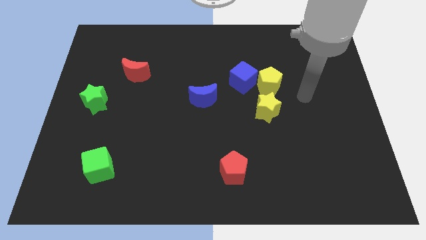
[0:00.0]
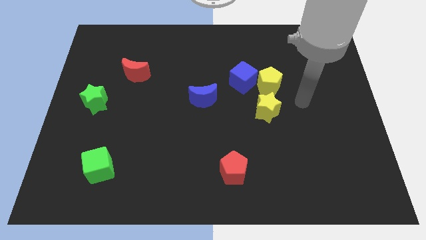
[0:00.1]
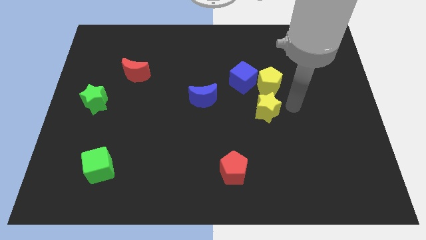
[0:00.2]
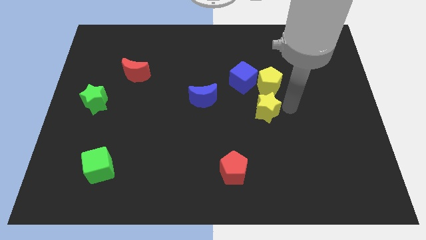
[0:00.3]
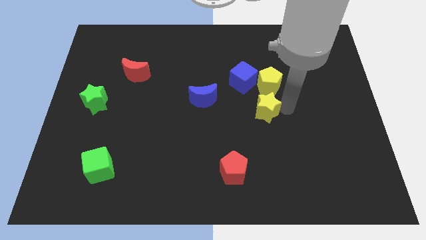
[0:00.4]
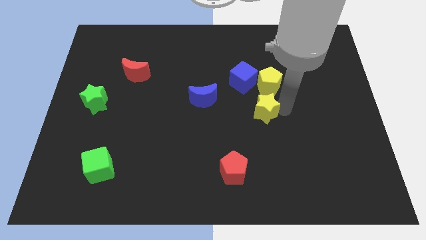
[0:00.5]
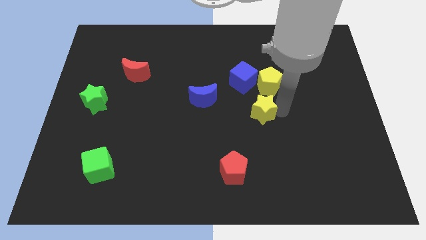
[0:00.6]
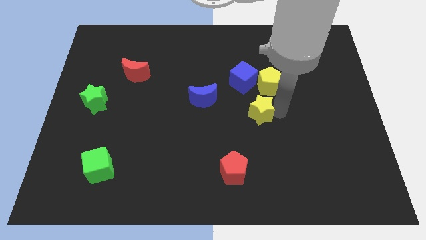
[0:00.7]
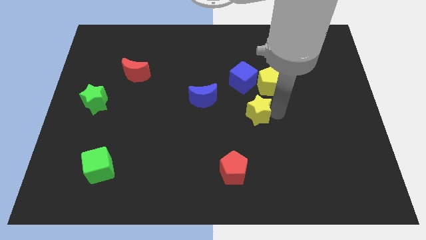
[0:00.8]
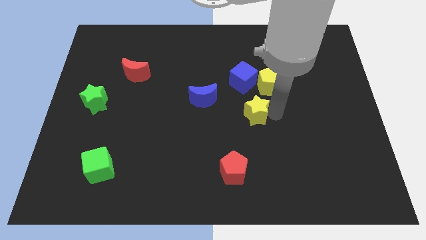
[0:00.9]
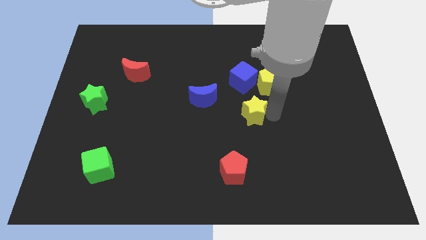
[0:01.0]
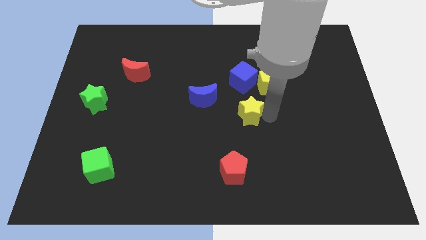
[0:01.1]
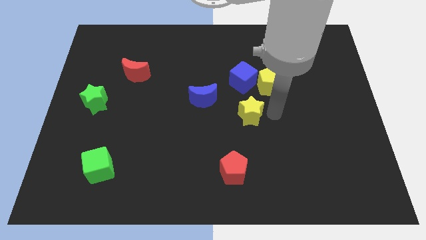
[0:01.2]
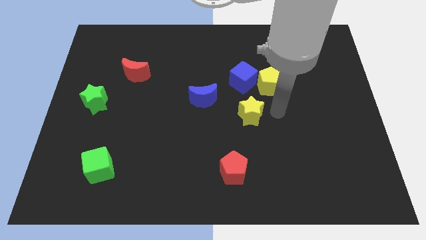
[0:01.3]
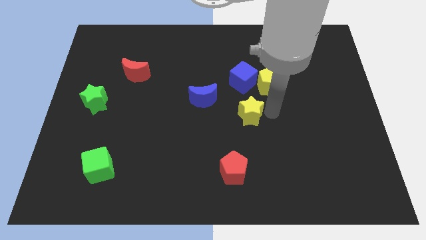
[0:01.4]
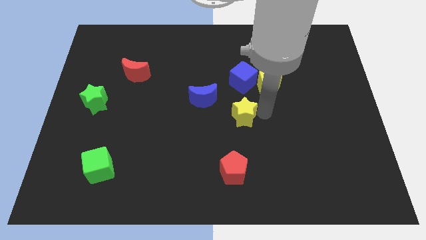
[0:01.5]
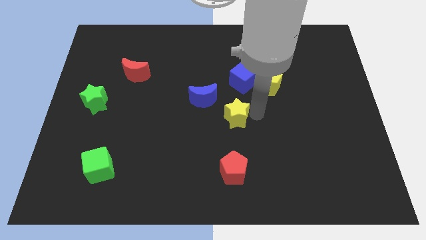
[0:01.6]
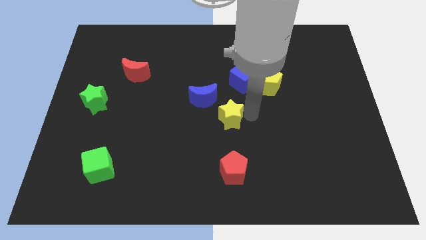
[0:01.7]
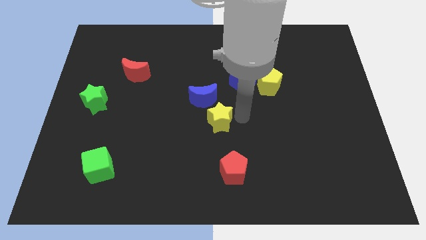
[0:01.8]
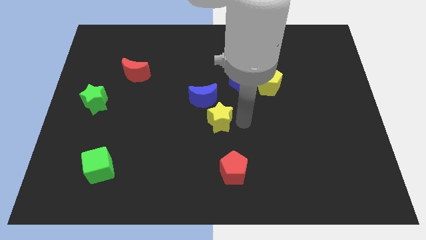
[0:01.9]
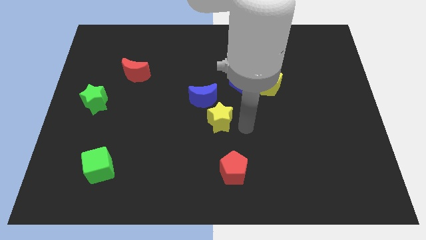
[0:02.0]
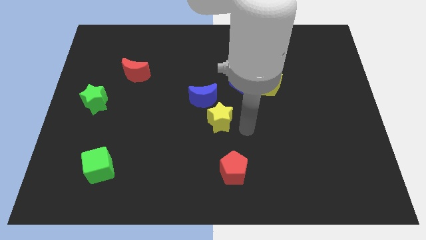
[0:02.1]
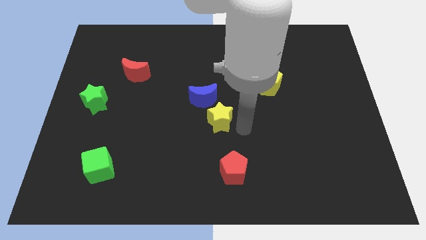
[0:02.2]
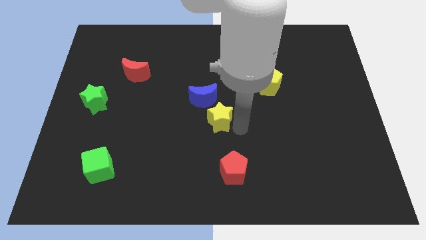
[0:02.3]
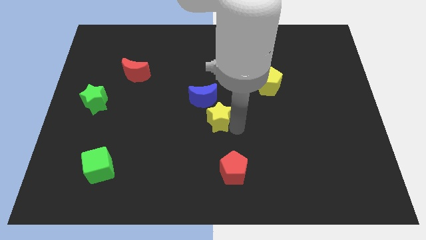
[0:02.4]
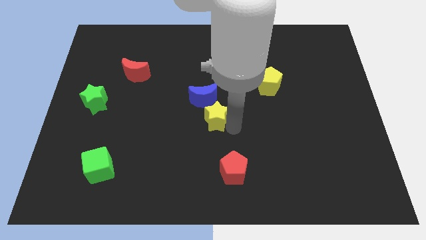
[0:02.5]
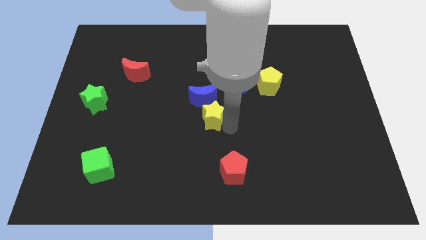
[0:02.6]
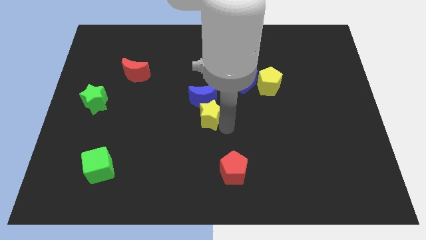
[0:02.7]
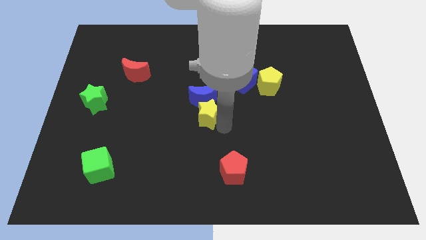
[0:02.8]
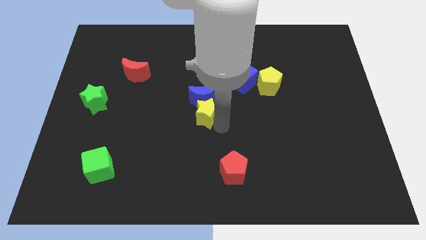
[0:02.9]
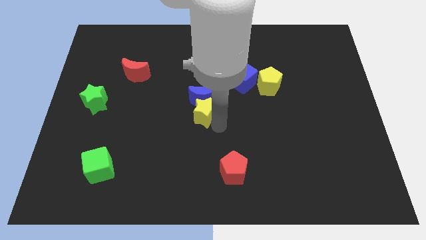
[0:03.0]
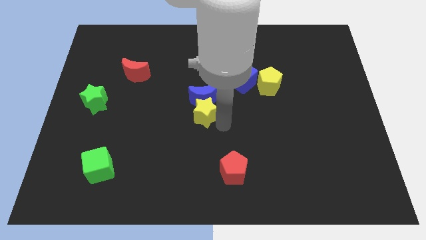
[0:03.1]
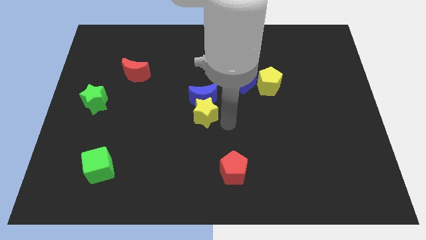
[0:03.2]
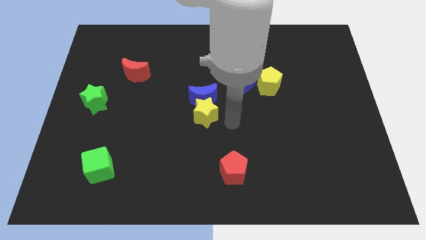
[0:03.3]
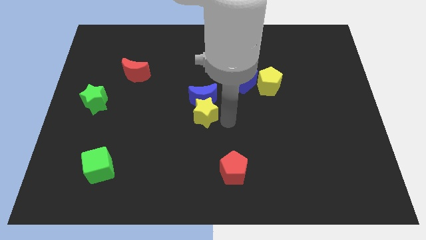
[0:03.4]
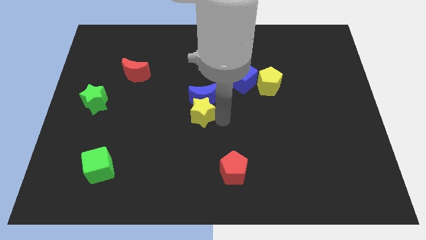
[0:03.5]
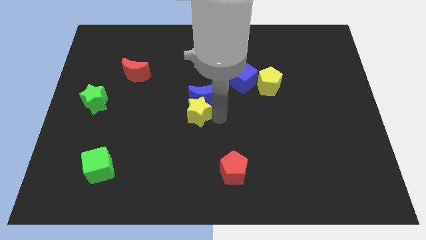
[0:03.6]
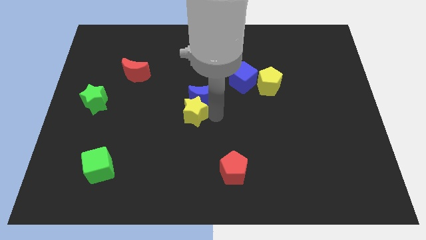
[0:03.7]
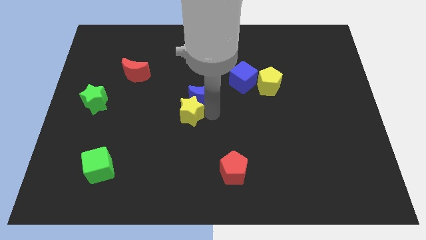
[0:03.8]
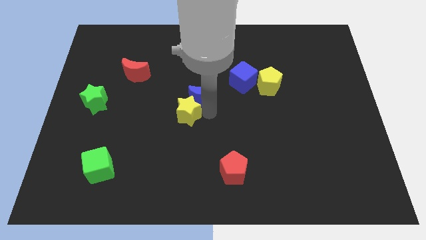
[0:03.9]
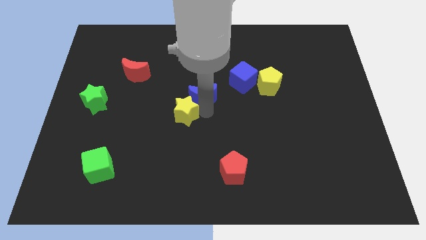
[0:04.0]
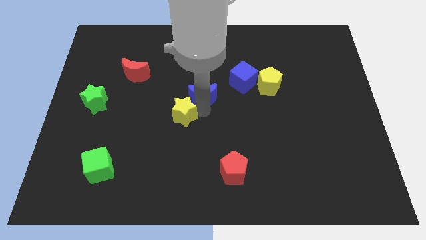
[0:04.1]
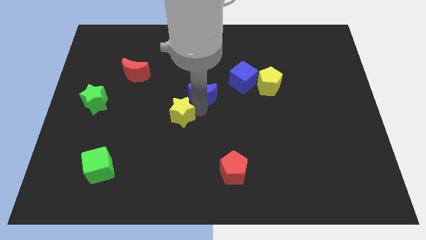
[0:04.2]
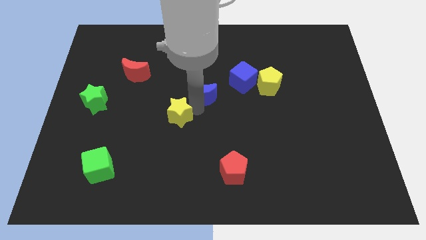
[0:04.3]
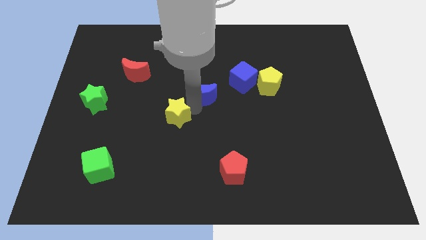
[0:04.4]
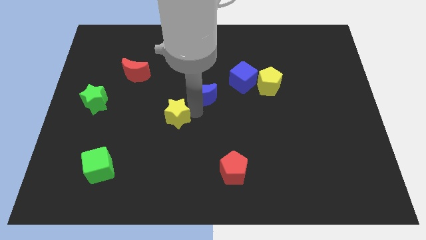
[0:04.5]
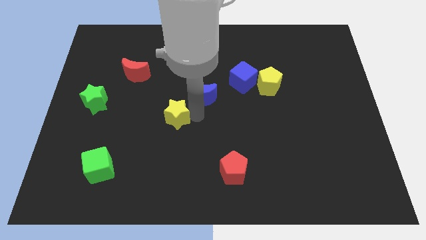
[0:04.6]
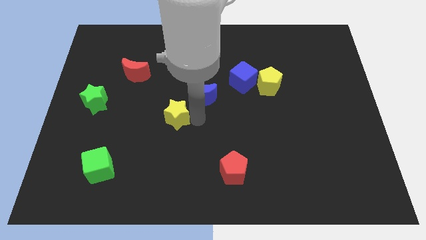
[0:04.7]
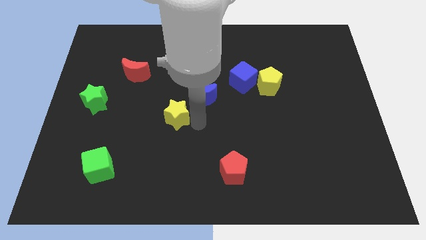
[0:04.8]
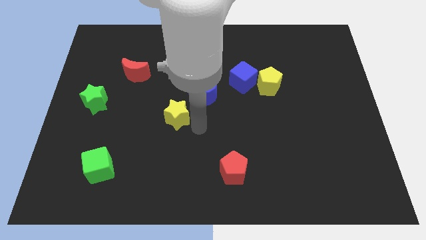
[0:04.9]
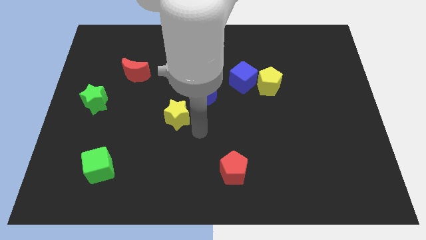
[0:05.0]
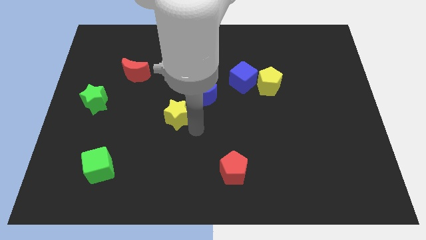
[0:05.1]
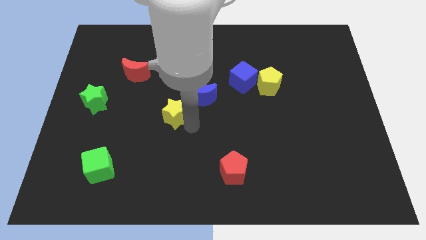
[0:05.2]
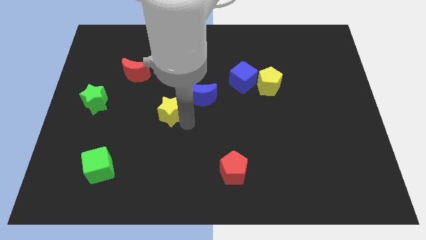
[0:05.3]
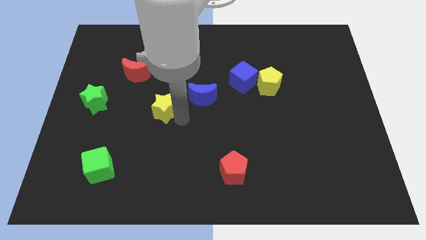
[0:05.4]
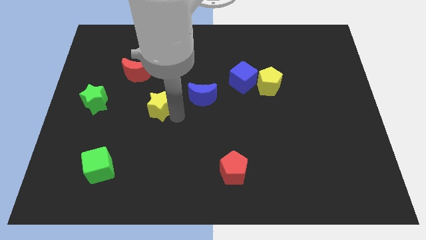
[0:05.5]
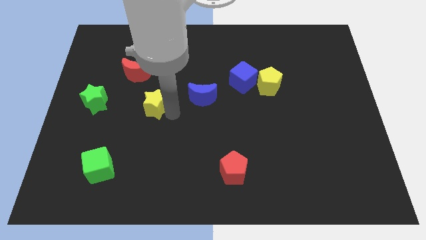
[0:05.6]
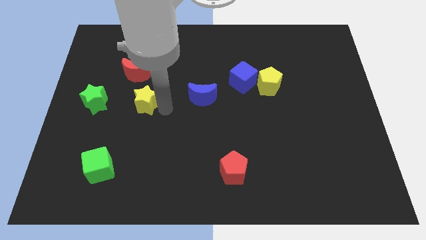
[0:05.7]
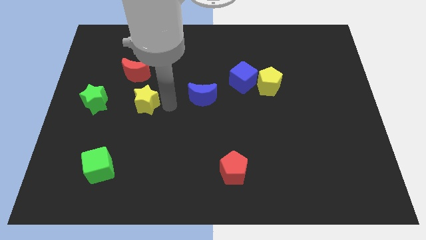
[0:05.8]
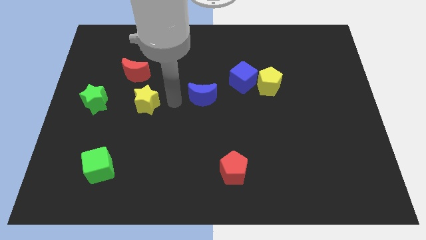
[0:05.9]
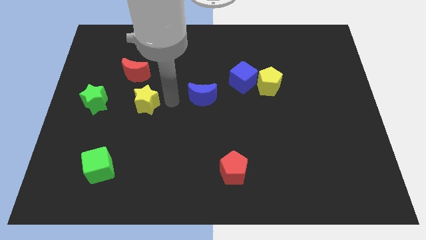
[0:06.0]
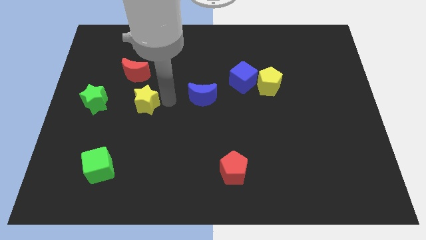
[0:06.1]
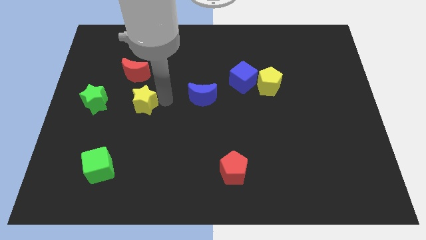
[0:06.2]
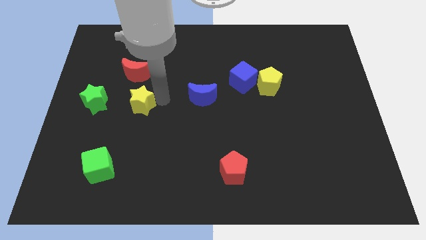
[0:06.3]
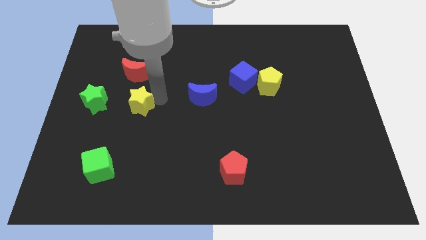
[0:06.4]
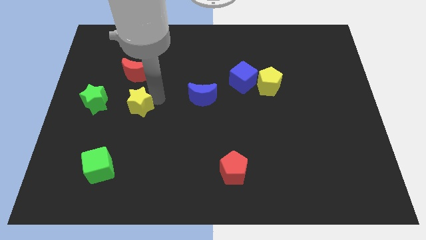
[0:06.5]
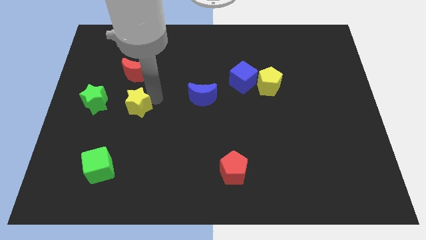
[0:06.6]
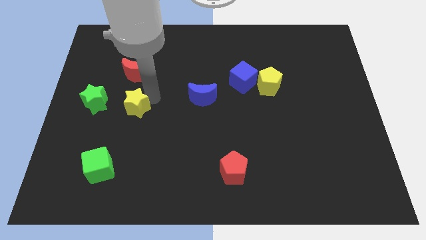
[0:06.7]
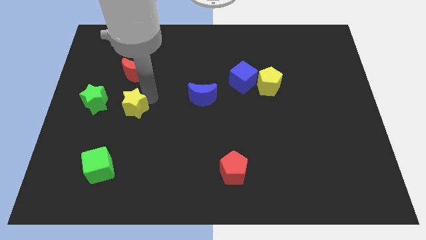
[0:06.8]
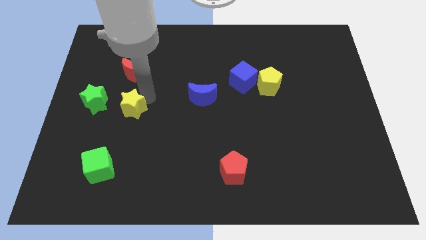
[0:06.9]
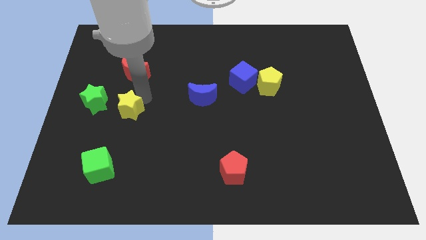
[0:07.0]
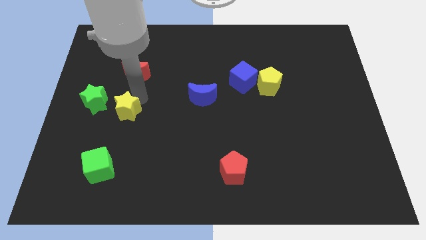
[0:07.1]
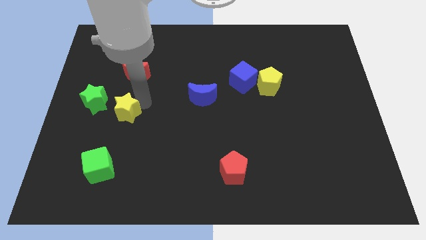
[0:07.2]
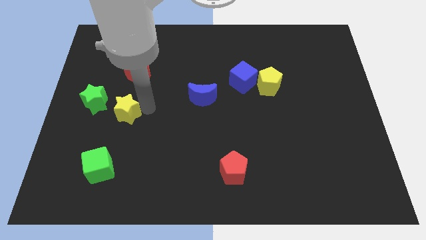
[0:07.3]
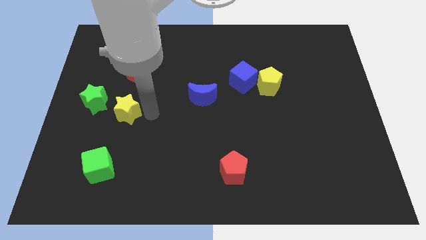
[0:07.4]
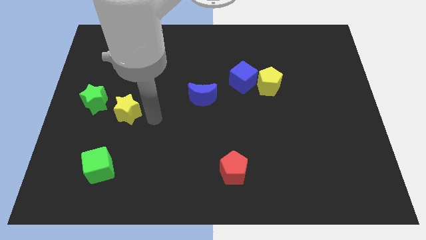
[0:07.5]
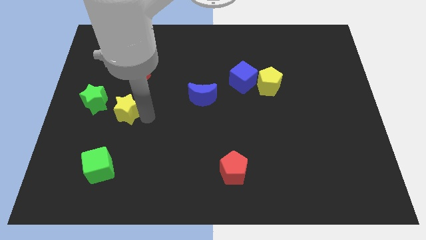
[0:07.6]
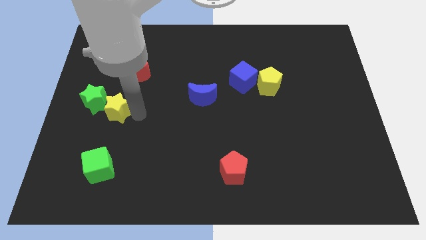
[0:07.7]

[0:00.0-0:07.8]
slide the yellow star towards the green star
